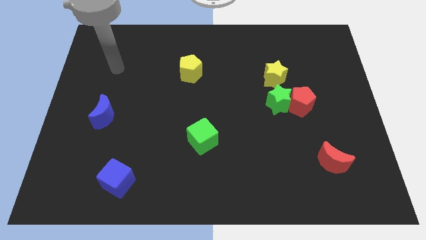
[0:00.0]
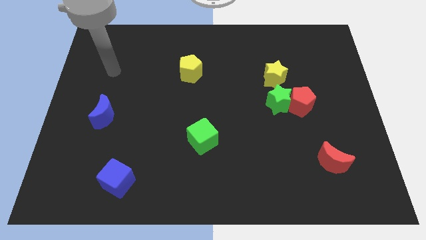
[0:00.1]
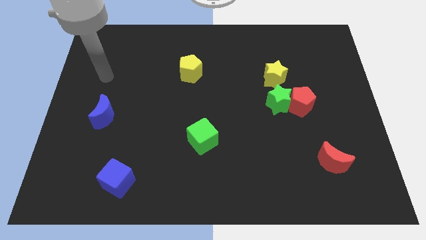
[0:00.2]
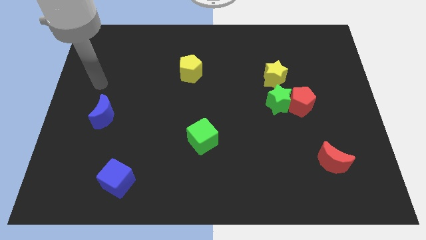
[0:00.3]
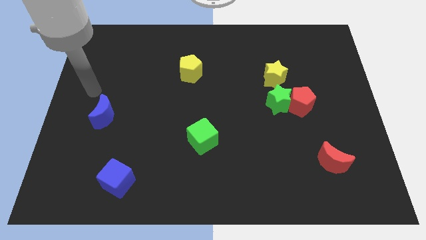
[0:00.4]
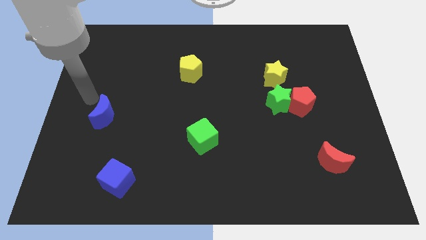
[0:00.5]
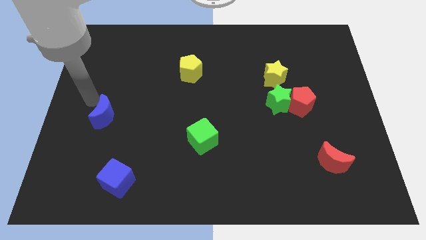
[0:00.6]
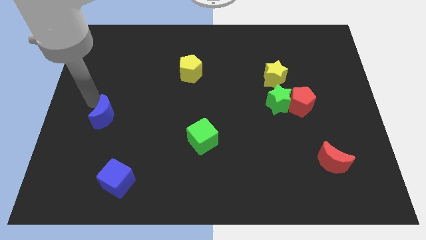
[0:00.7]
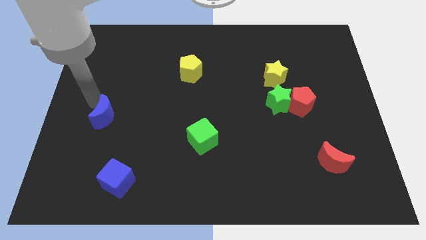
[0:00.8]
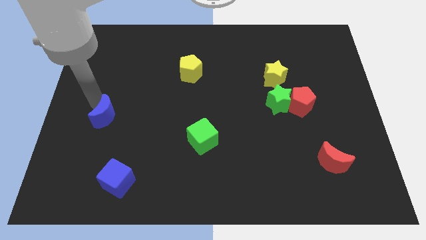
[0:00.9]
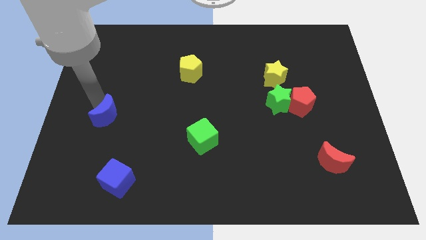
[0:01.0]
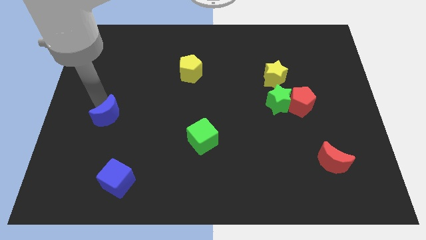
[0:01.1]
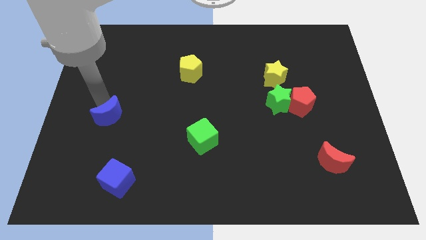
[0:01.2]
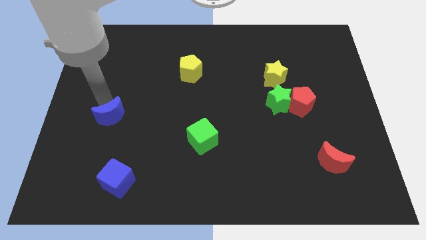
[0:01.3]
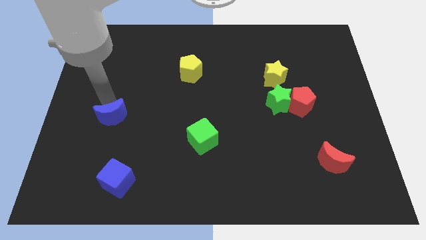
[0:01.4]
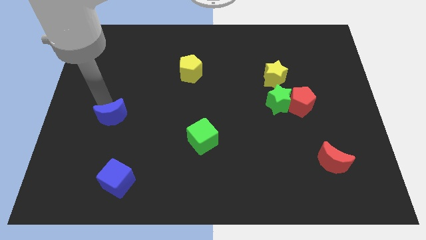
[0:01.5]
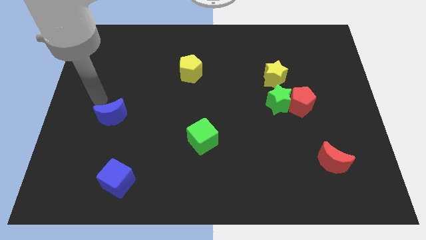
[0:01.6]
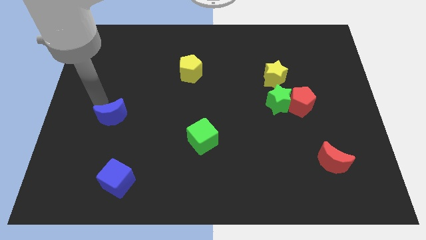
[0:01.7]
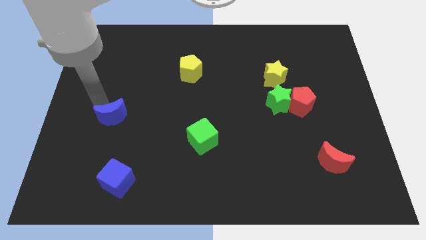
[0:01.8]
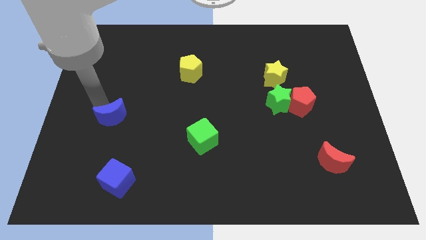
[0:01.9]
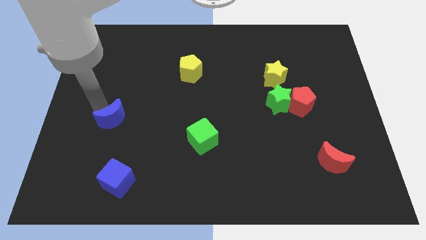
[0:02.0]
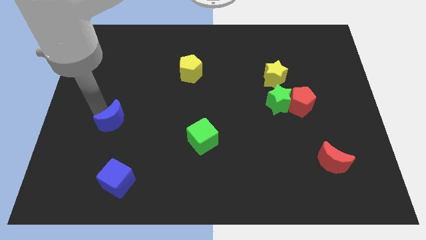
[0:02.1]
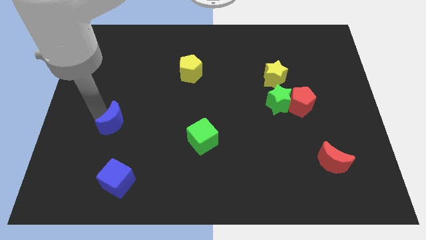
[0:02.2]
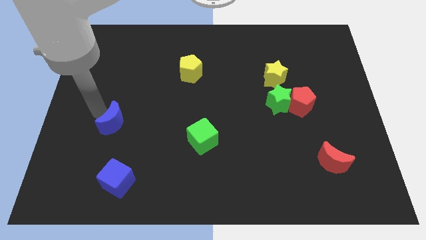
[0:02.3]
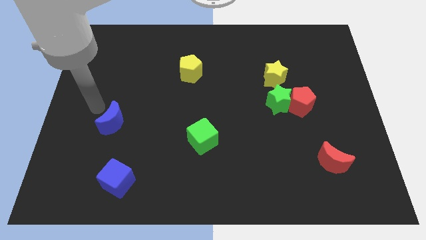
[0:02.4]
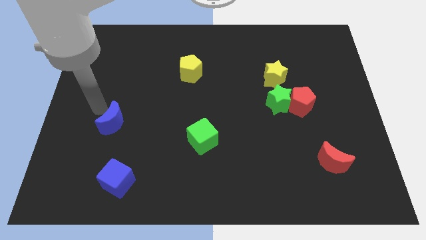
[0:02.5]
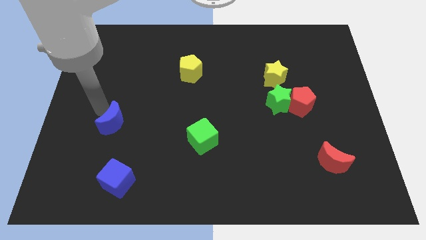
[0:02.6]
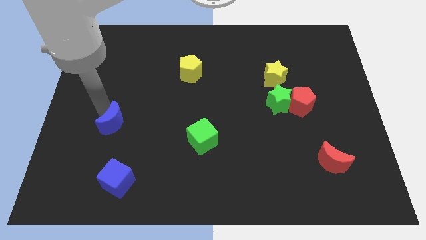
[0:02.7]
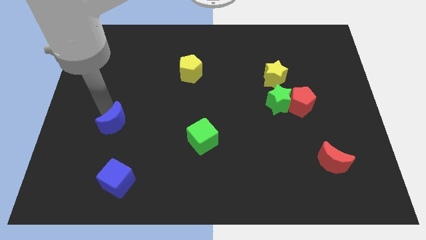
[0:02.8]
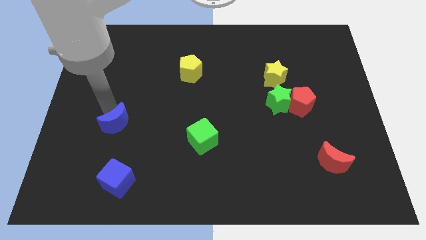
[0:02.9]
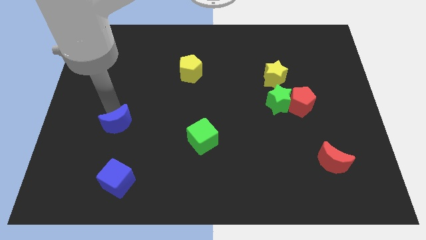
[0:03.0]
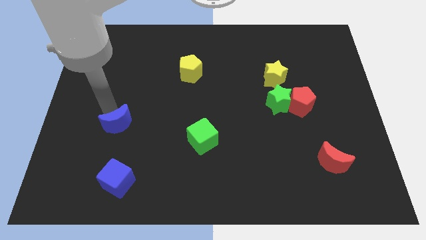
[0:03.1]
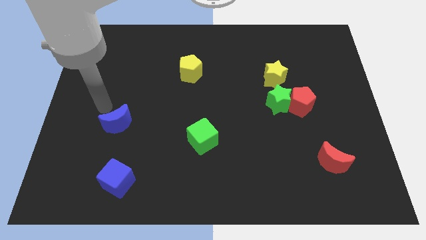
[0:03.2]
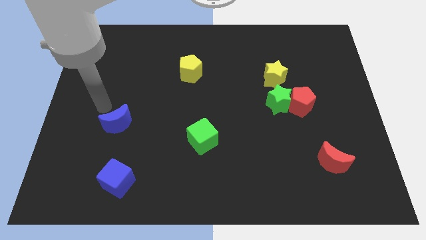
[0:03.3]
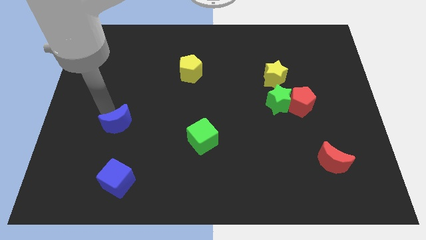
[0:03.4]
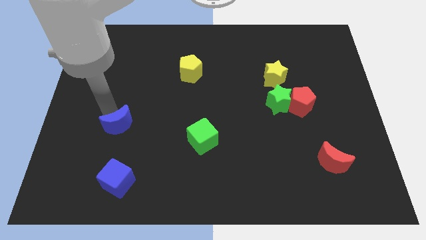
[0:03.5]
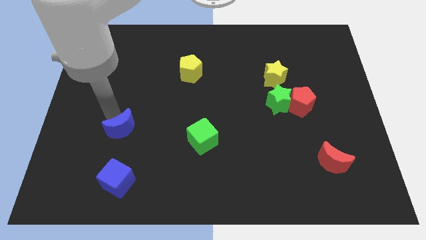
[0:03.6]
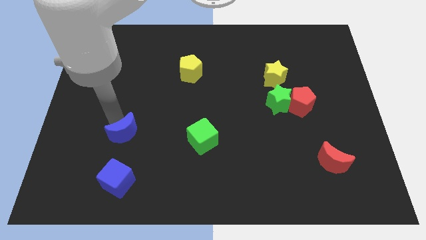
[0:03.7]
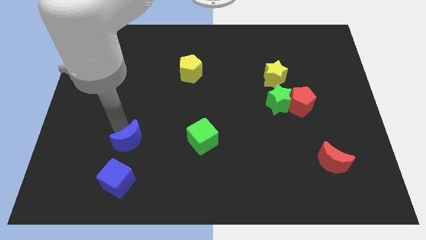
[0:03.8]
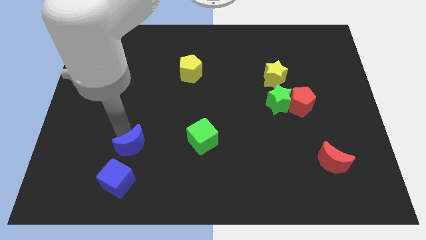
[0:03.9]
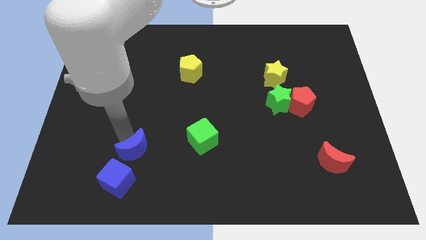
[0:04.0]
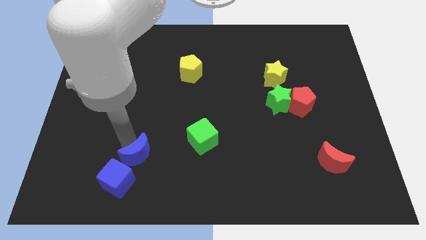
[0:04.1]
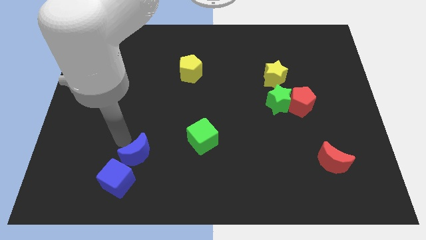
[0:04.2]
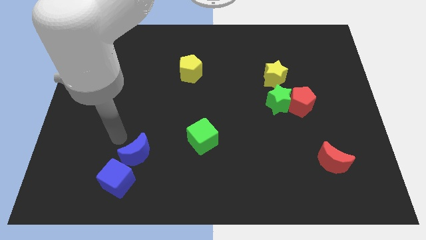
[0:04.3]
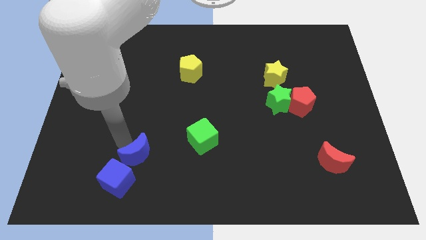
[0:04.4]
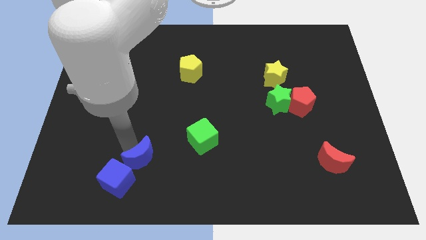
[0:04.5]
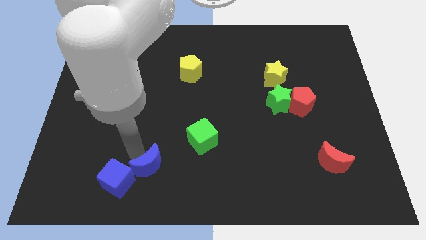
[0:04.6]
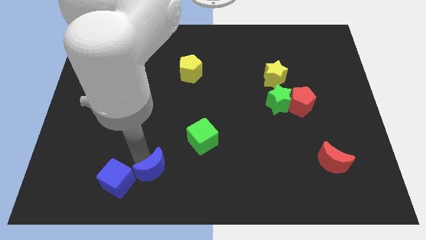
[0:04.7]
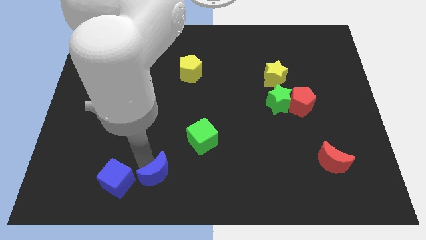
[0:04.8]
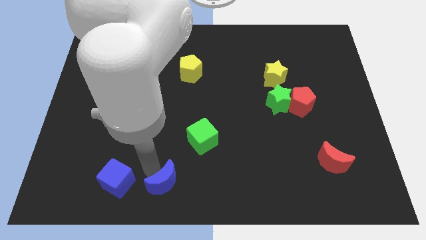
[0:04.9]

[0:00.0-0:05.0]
slide the blue moon to the bottom side

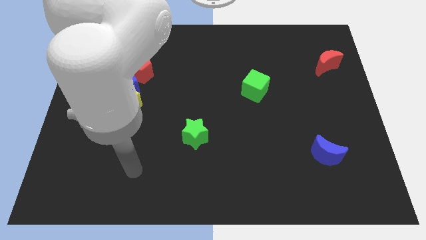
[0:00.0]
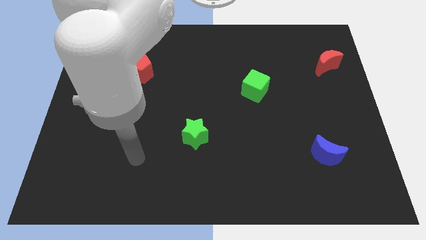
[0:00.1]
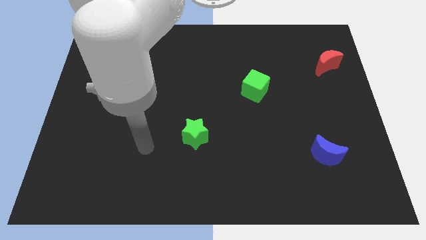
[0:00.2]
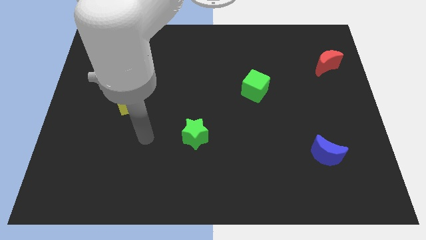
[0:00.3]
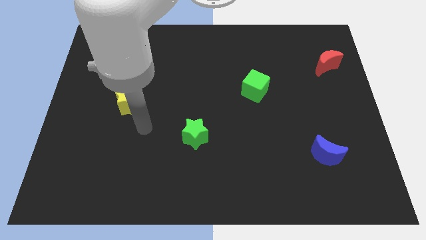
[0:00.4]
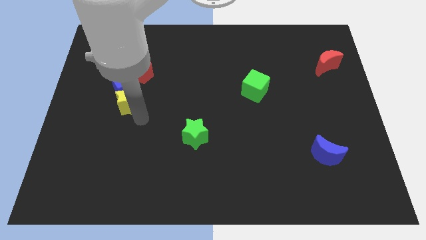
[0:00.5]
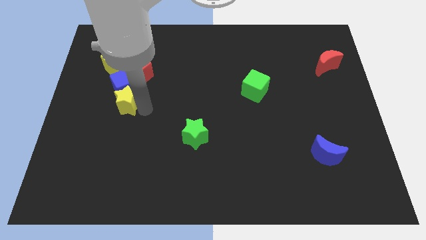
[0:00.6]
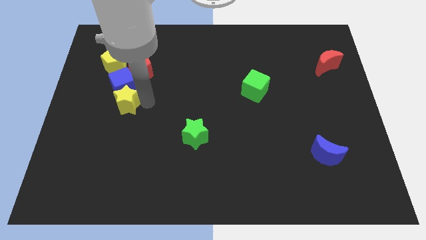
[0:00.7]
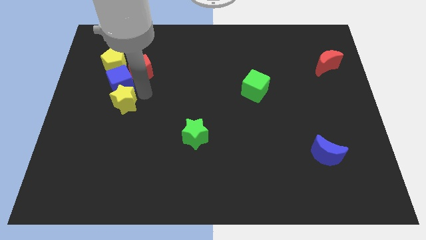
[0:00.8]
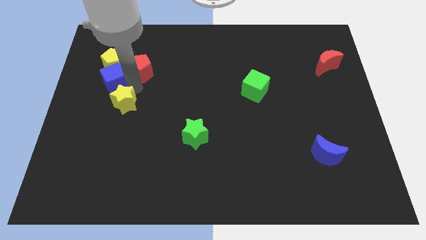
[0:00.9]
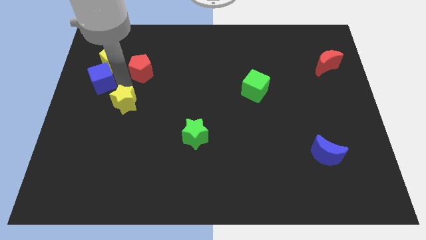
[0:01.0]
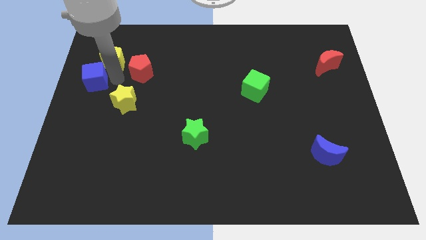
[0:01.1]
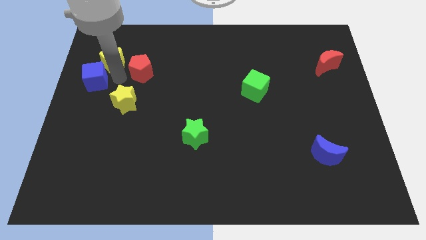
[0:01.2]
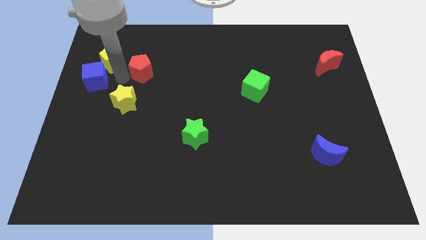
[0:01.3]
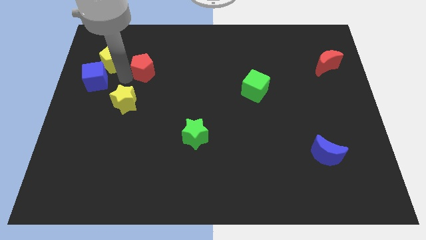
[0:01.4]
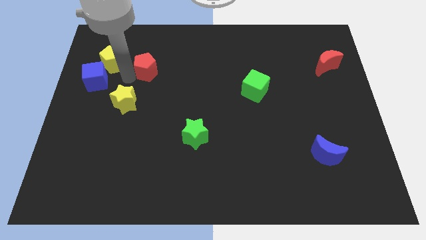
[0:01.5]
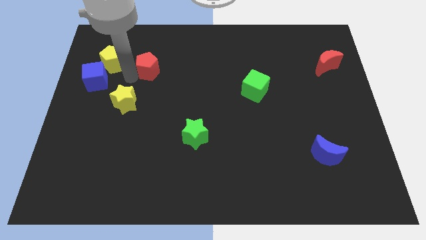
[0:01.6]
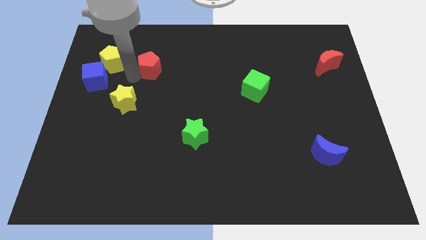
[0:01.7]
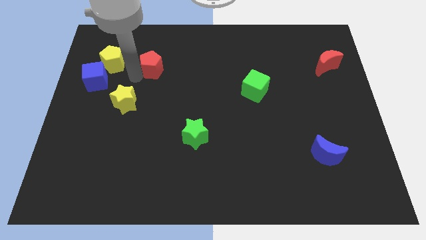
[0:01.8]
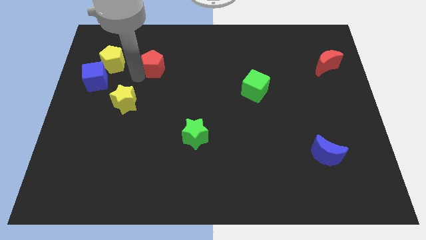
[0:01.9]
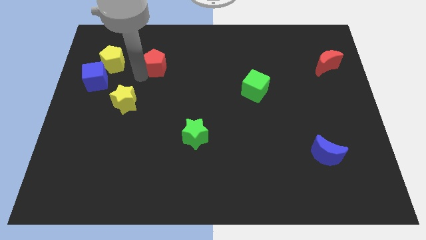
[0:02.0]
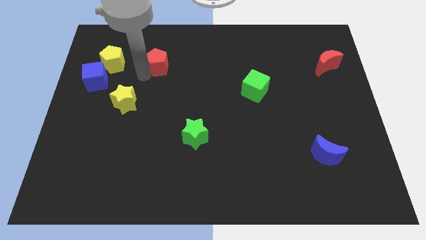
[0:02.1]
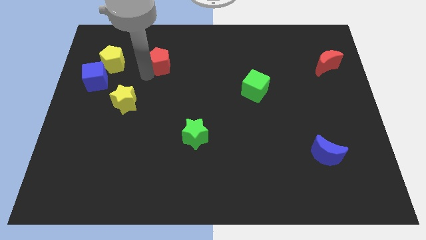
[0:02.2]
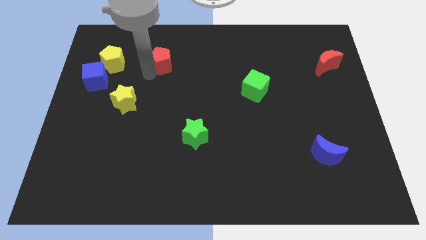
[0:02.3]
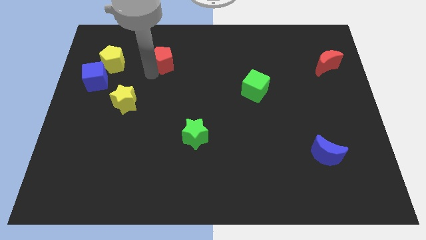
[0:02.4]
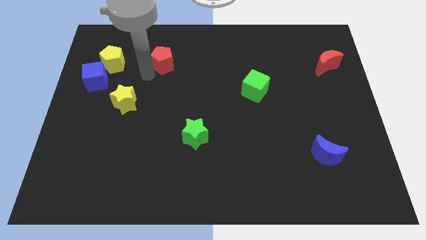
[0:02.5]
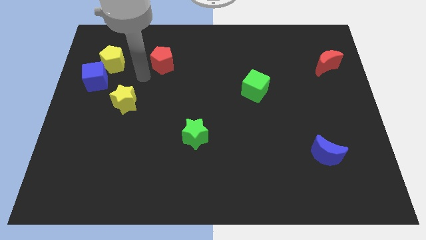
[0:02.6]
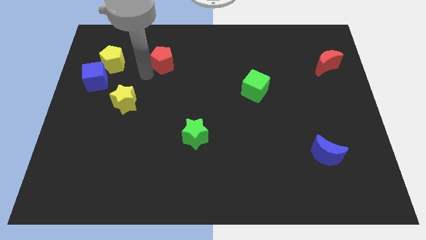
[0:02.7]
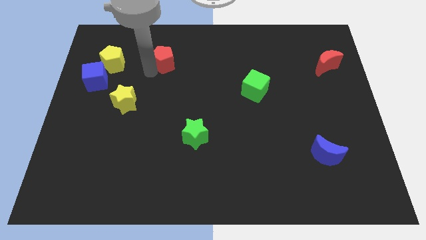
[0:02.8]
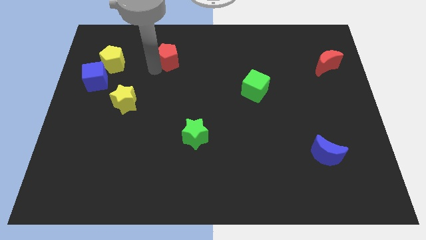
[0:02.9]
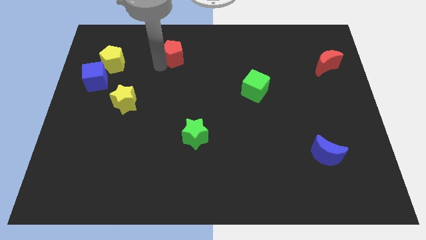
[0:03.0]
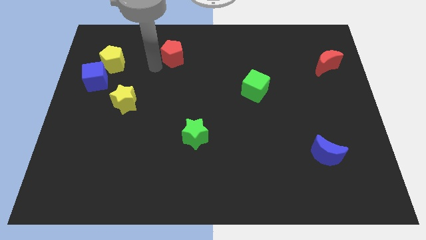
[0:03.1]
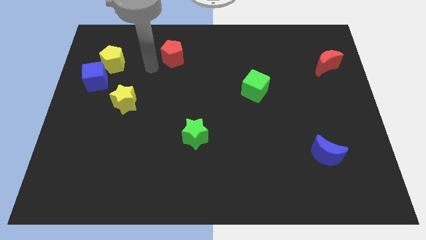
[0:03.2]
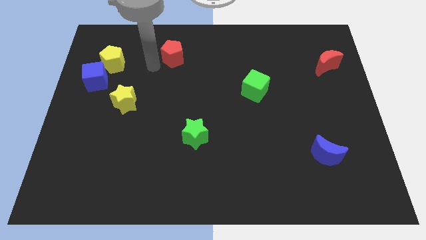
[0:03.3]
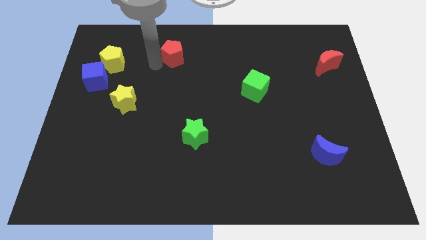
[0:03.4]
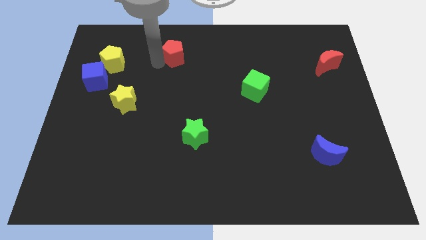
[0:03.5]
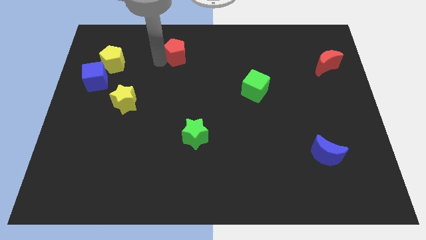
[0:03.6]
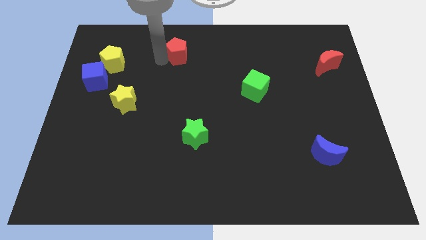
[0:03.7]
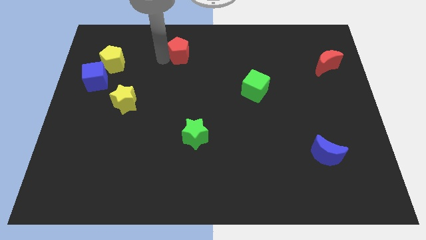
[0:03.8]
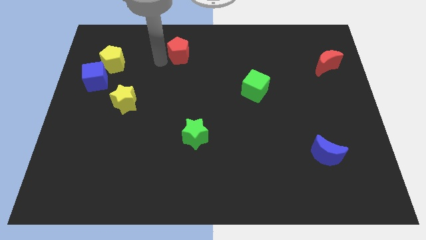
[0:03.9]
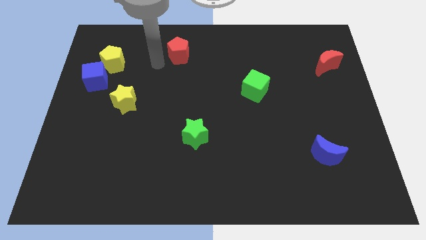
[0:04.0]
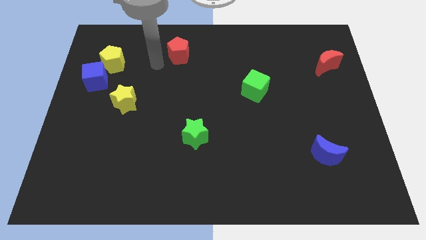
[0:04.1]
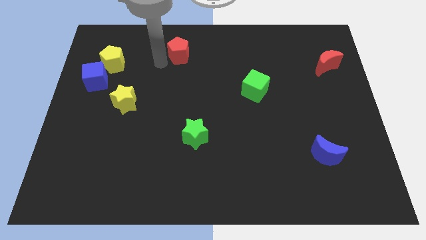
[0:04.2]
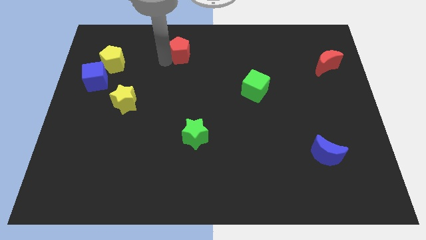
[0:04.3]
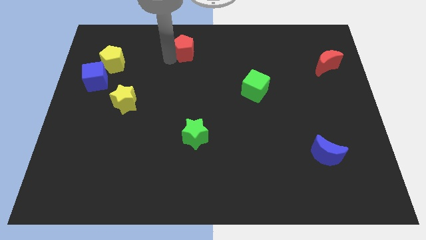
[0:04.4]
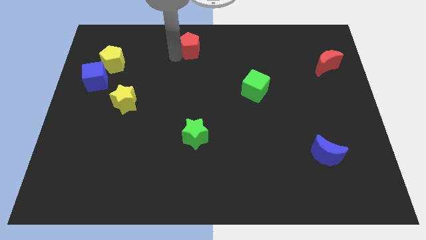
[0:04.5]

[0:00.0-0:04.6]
move the red pentagon to the top side
